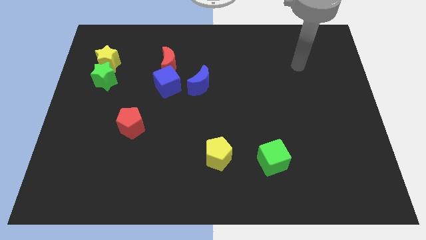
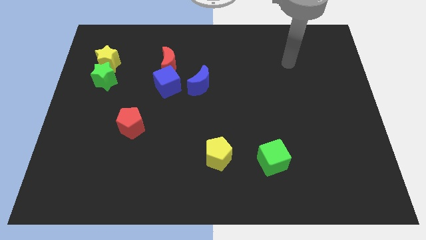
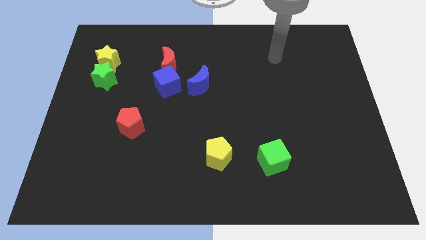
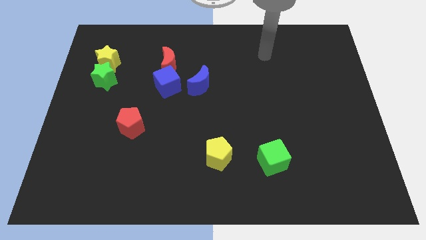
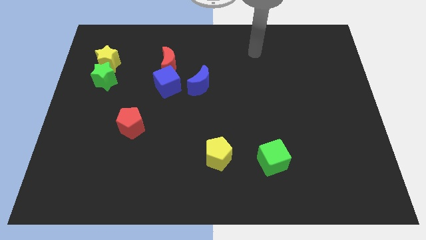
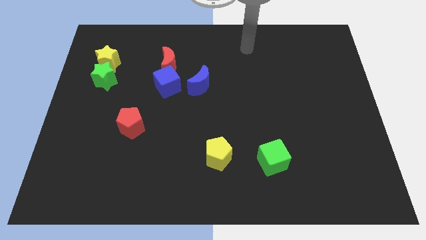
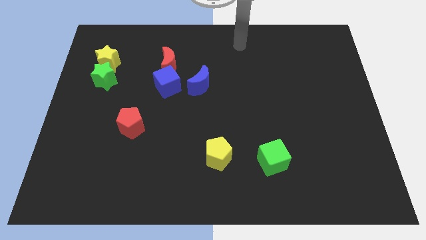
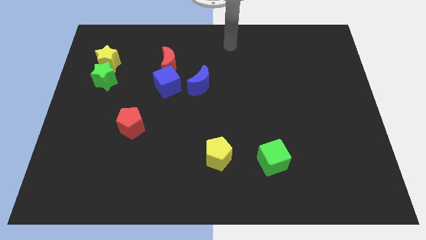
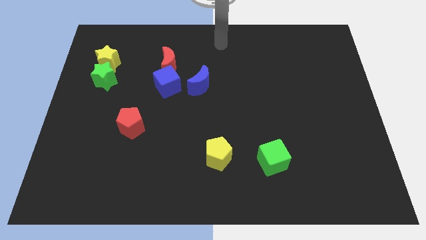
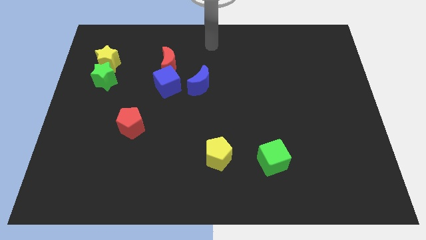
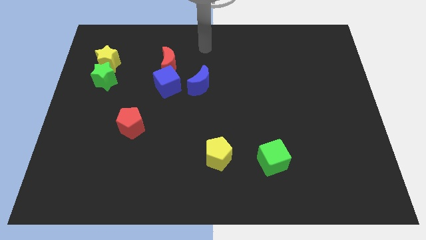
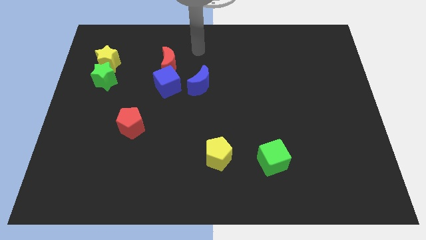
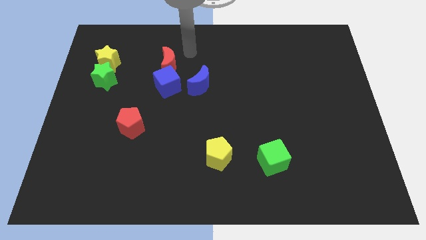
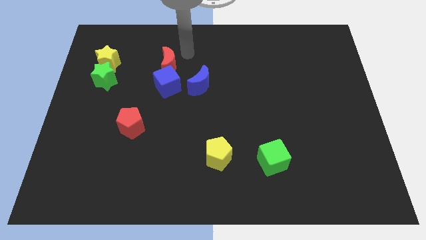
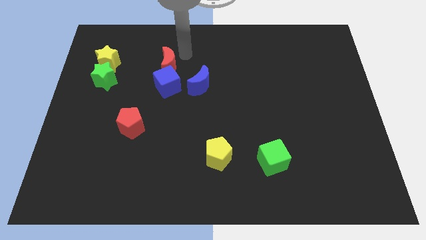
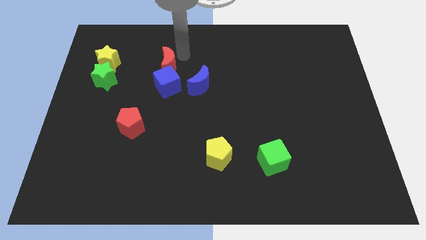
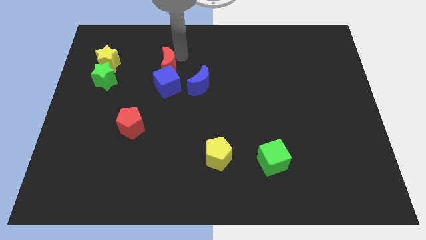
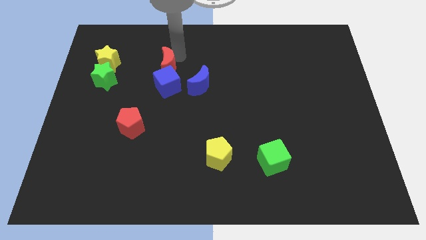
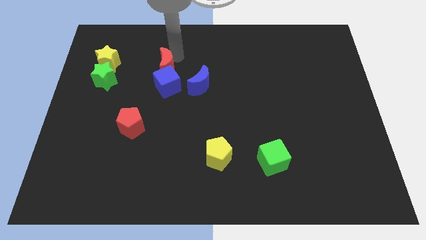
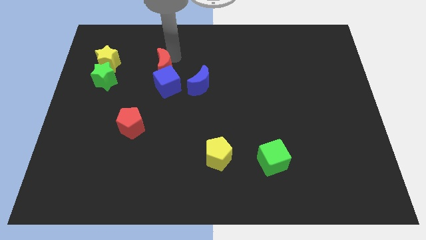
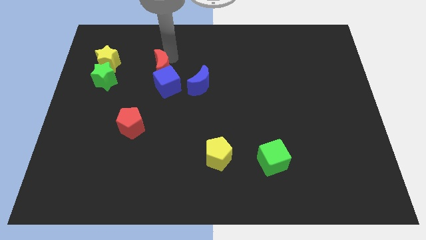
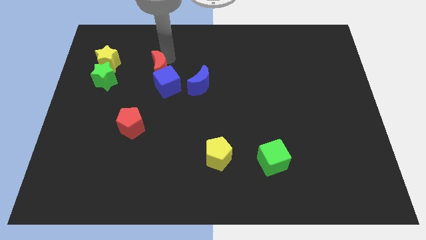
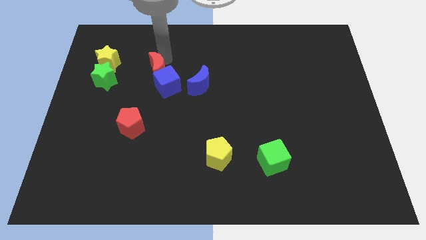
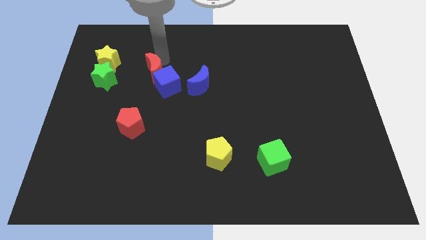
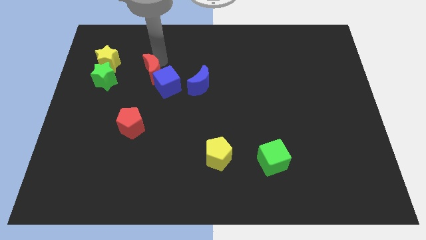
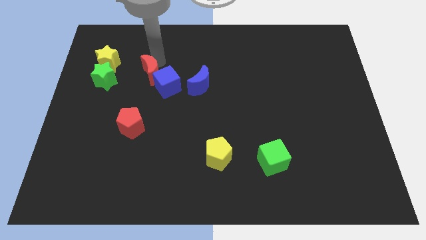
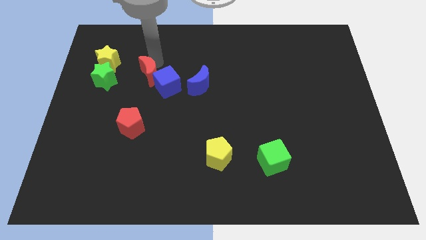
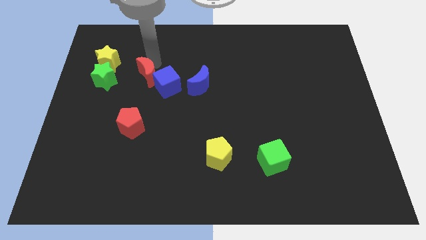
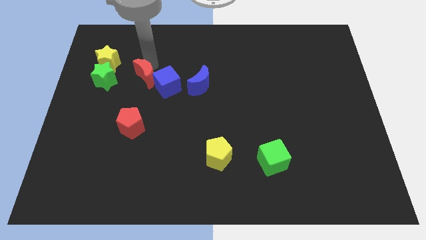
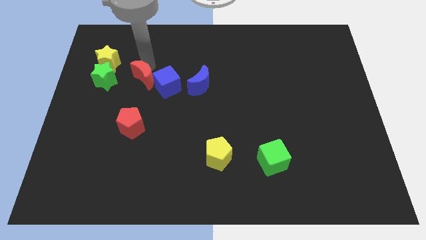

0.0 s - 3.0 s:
slide the red moon a little bit diagonally down and left

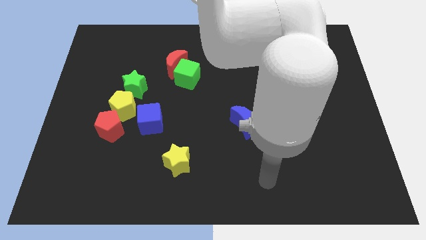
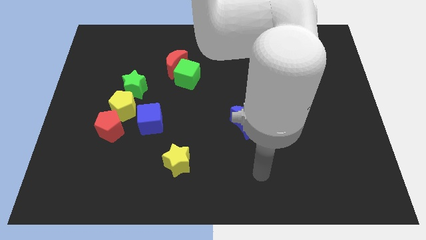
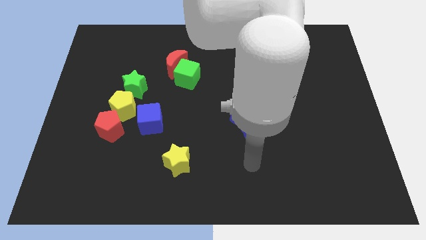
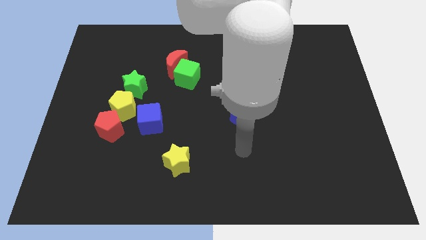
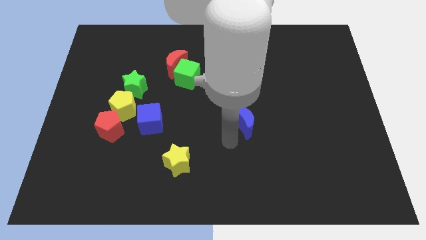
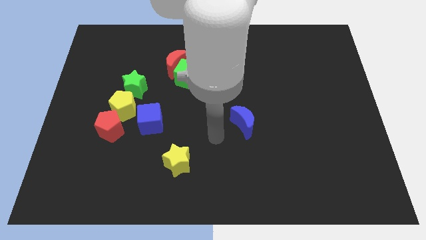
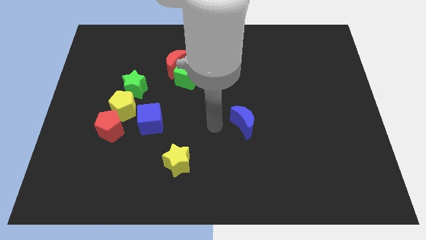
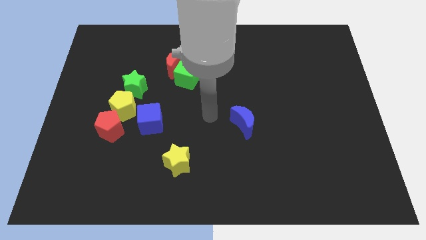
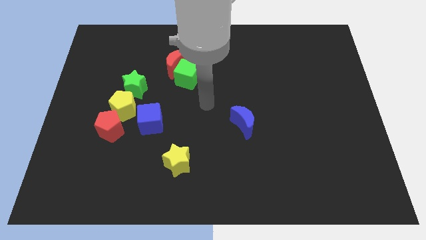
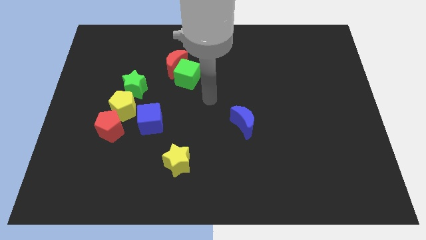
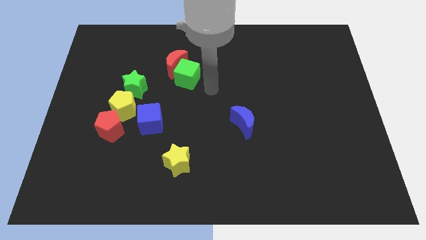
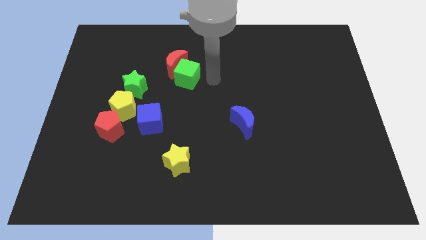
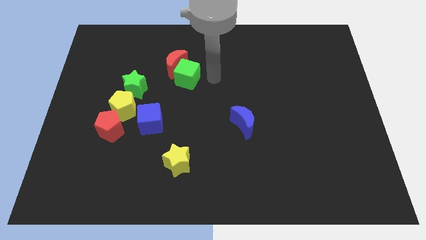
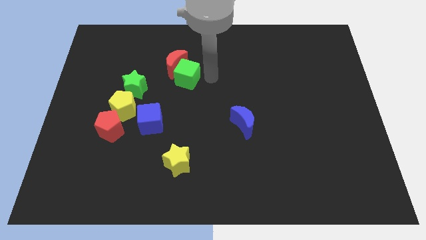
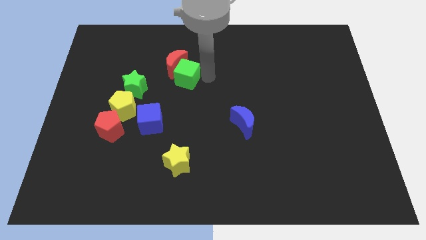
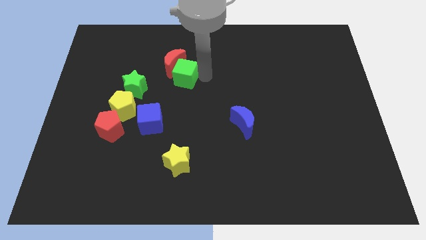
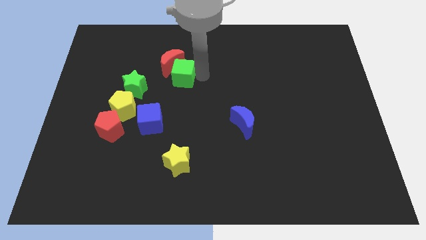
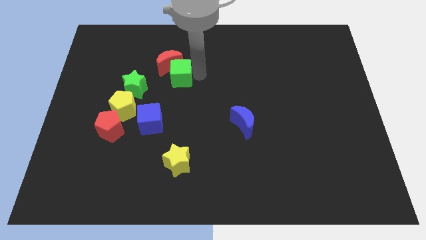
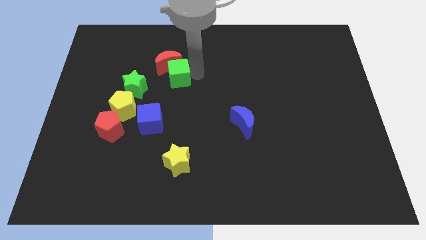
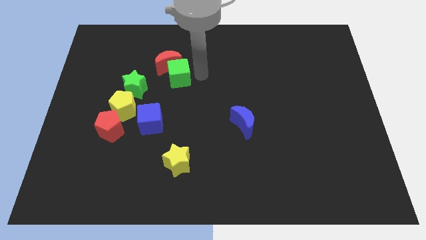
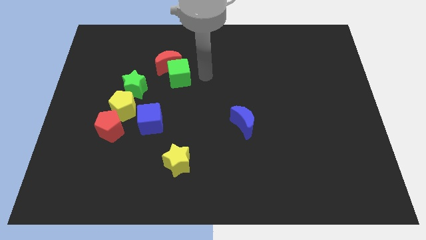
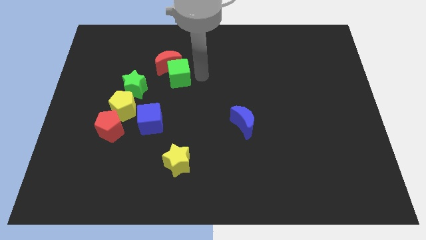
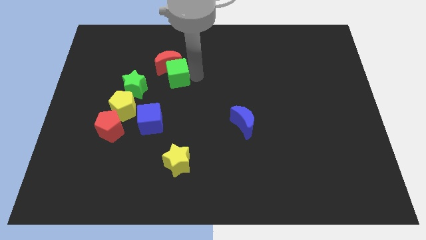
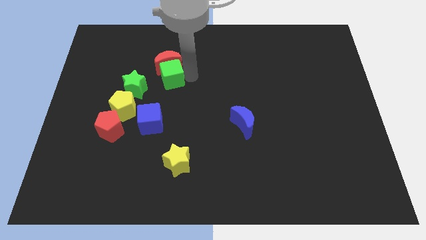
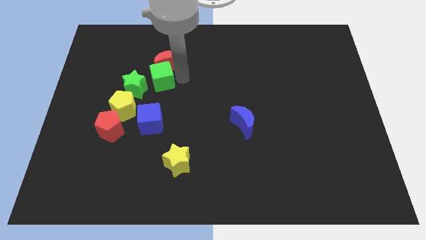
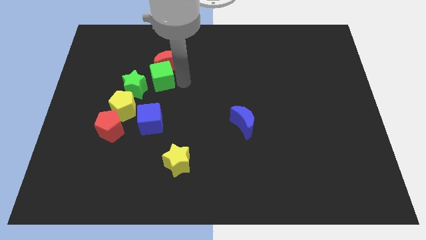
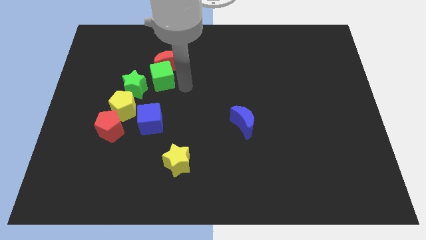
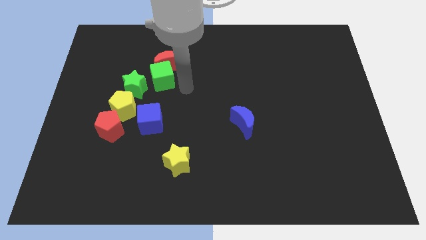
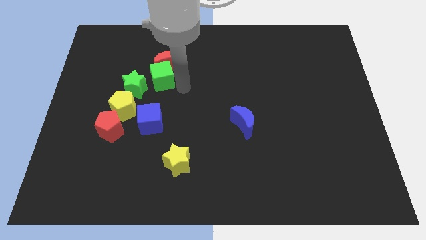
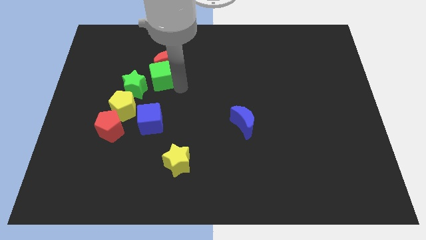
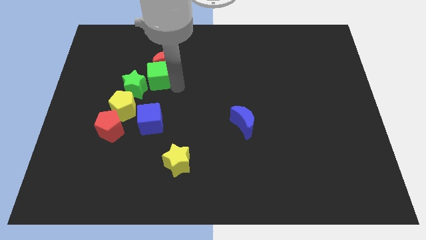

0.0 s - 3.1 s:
move the green cube a little bit left

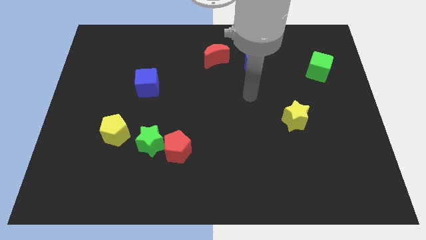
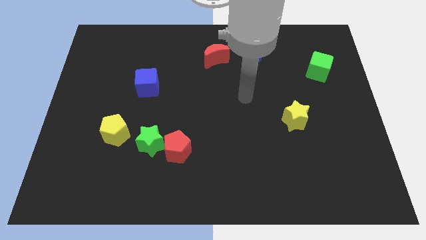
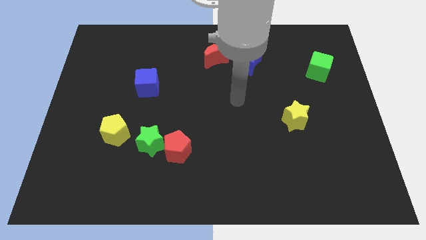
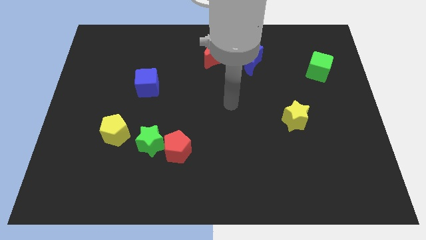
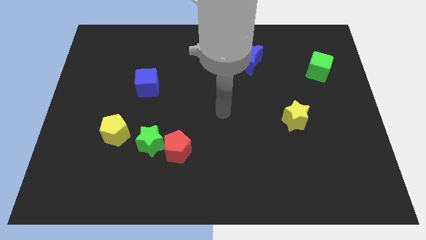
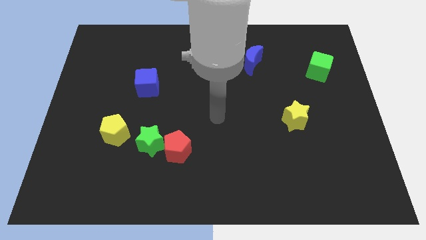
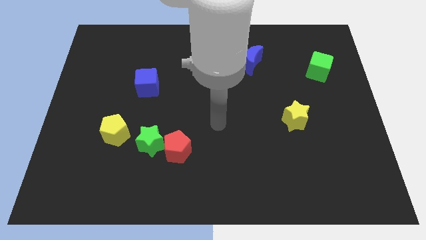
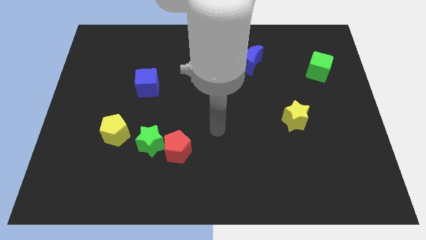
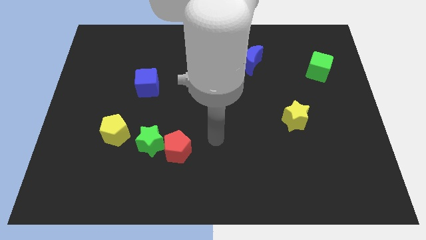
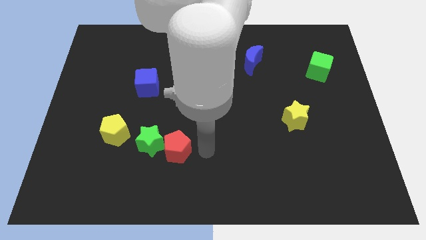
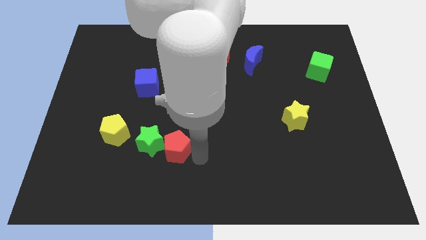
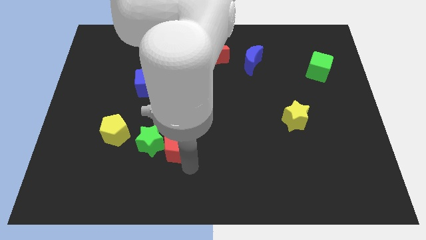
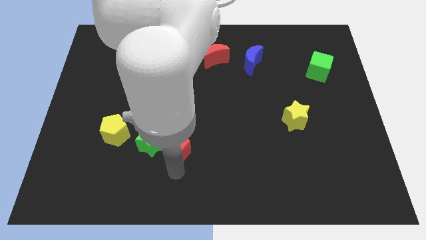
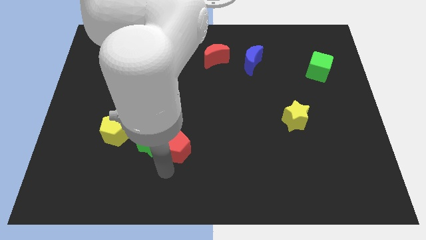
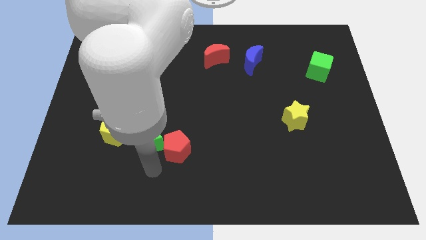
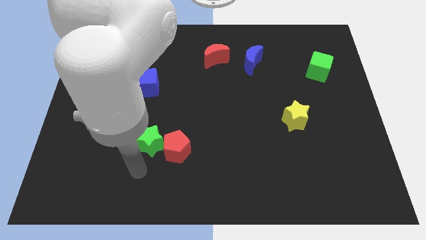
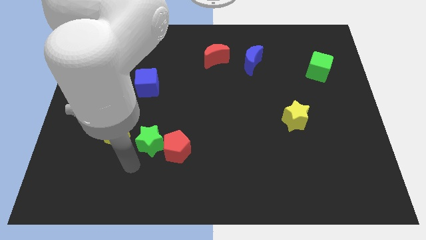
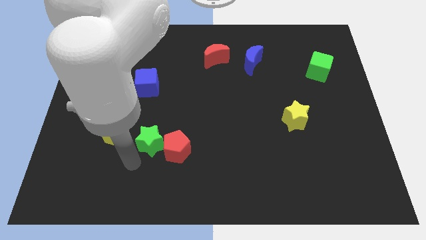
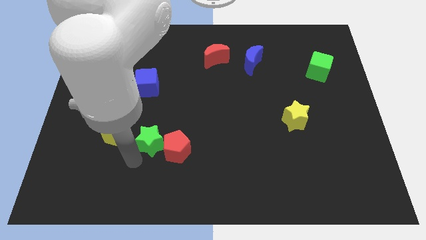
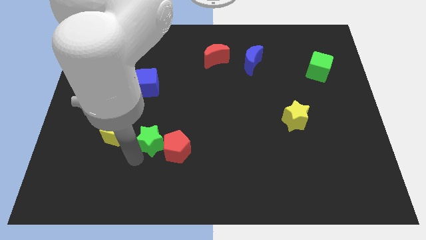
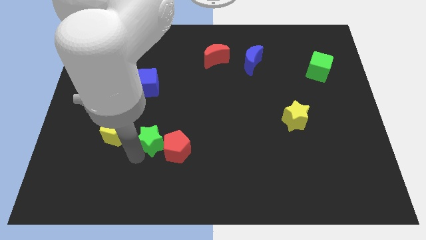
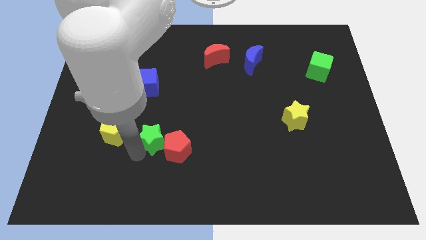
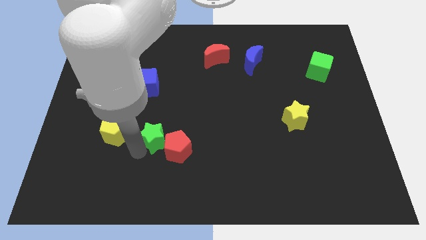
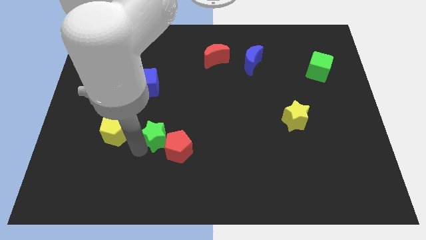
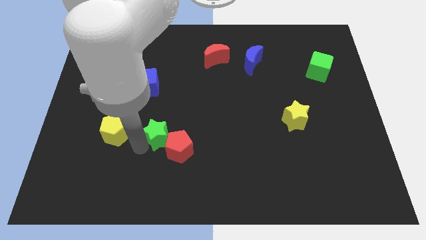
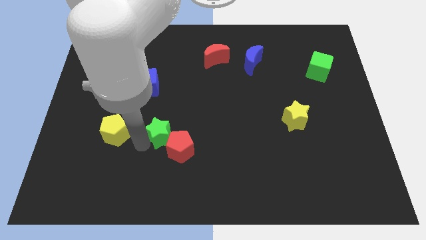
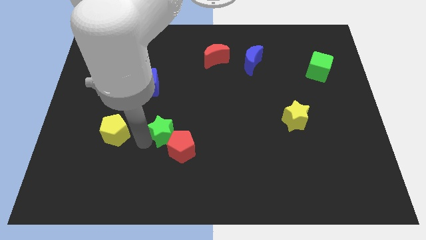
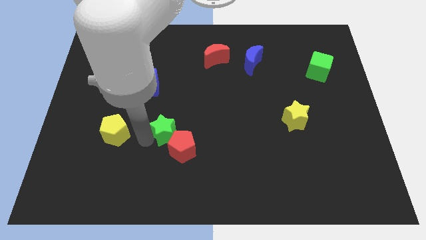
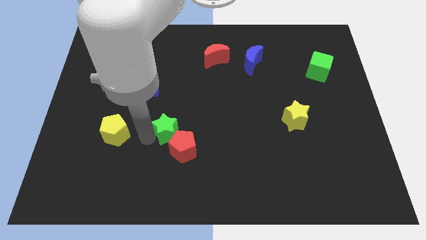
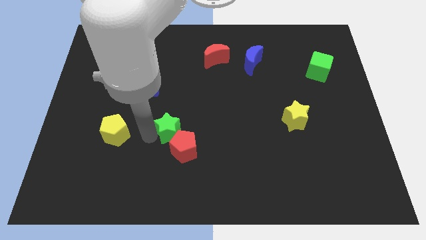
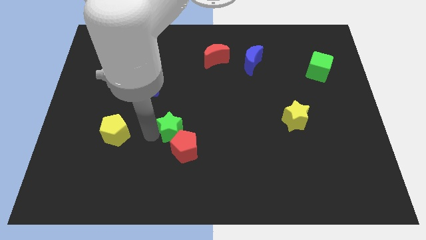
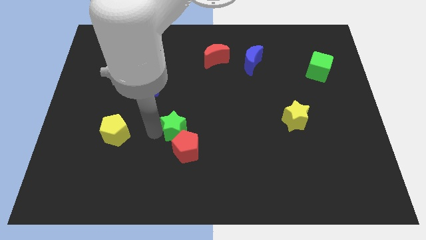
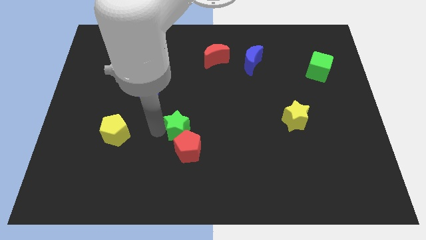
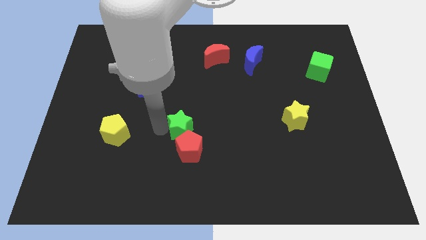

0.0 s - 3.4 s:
slide the green star up and to the right diagonally a bit
